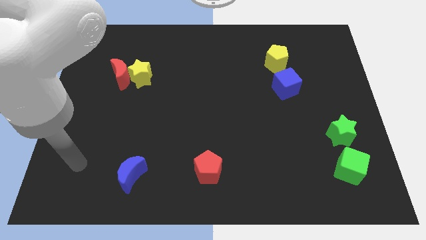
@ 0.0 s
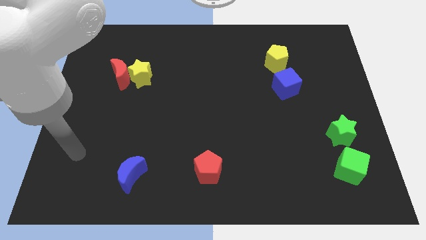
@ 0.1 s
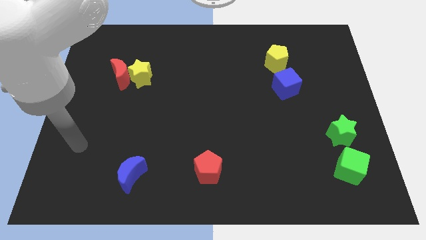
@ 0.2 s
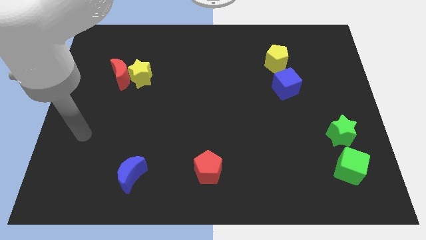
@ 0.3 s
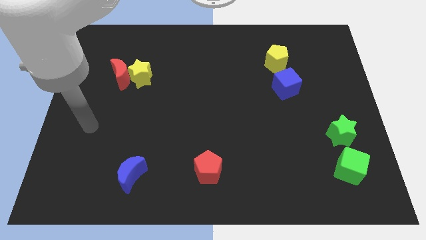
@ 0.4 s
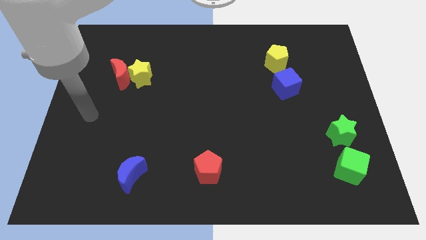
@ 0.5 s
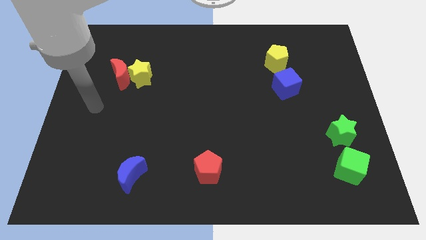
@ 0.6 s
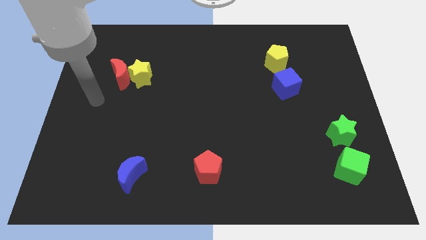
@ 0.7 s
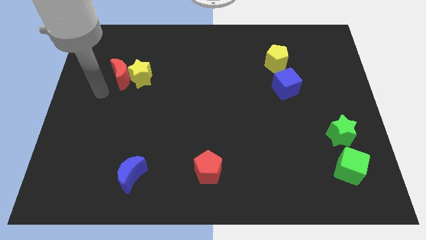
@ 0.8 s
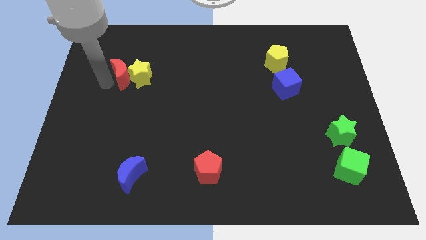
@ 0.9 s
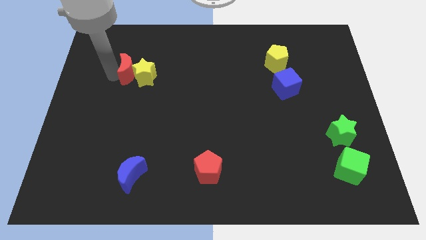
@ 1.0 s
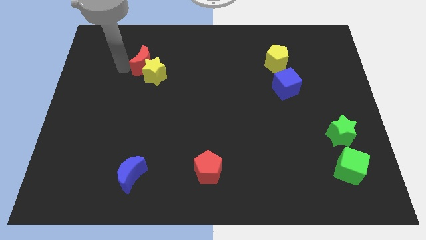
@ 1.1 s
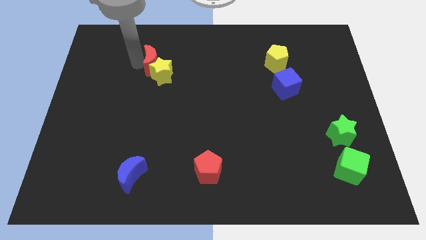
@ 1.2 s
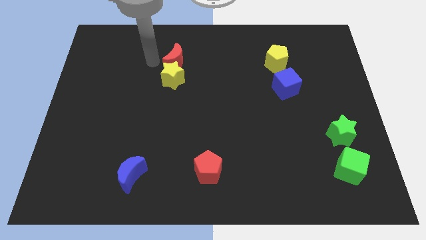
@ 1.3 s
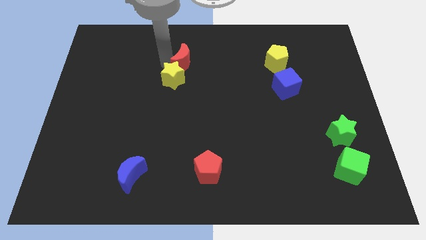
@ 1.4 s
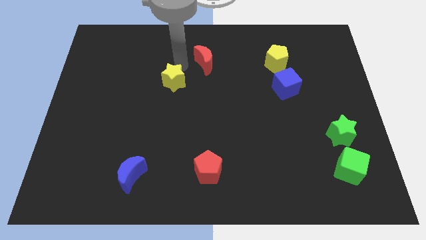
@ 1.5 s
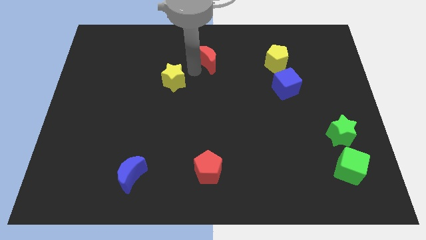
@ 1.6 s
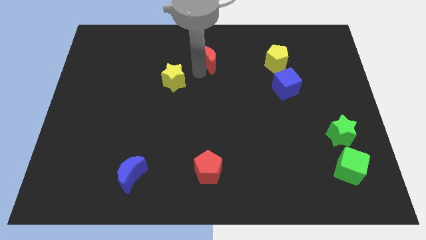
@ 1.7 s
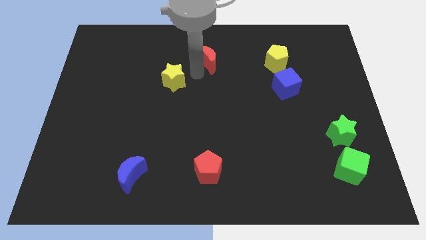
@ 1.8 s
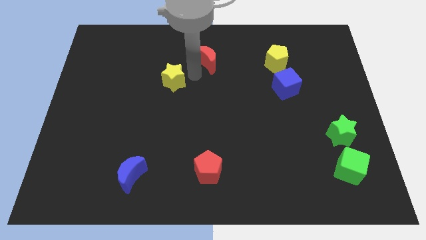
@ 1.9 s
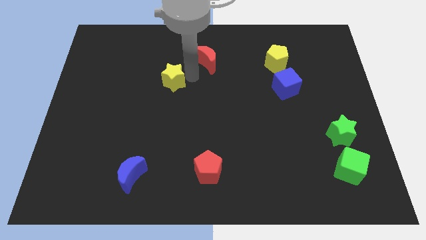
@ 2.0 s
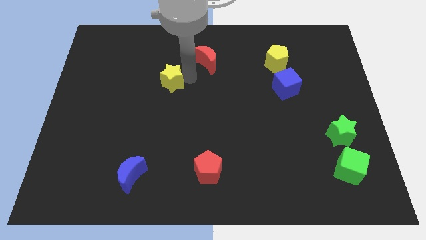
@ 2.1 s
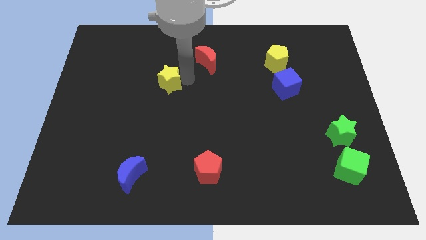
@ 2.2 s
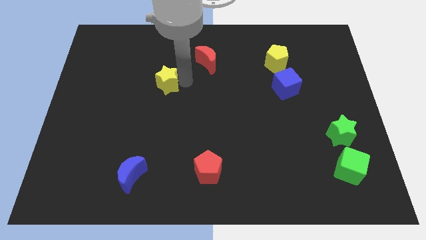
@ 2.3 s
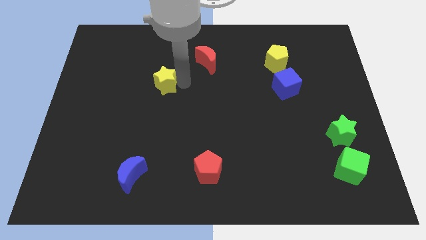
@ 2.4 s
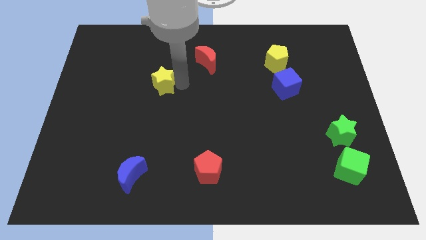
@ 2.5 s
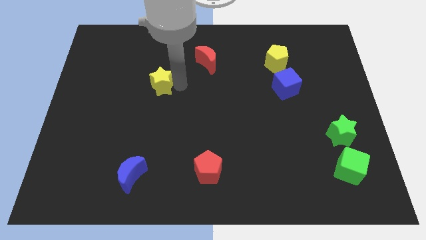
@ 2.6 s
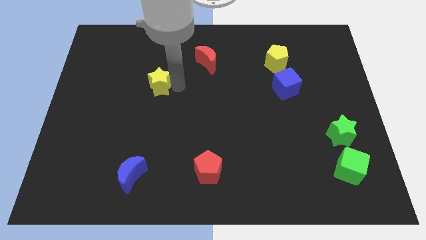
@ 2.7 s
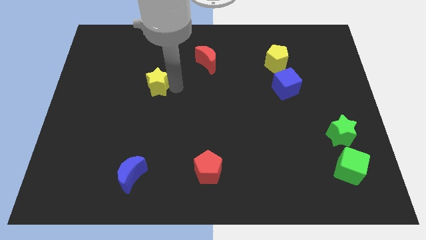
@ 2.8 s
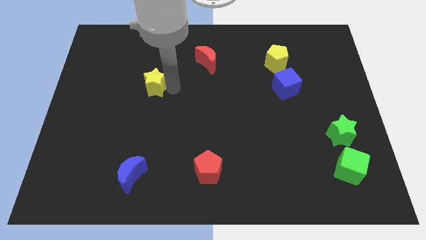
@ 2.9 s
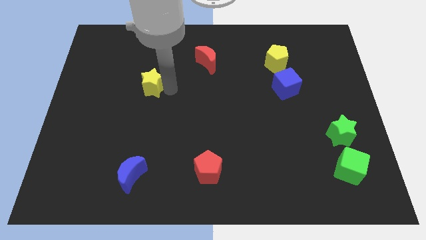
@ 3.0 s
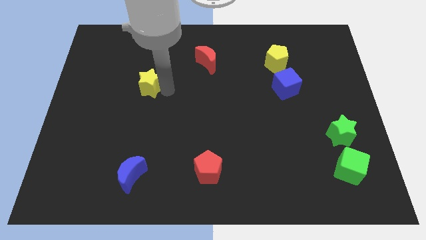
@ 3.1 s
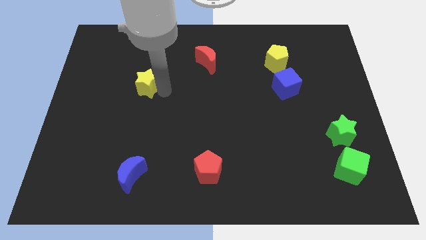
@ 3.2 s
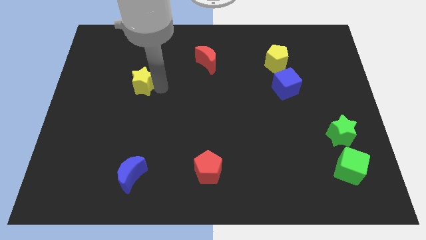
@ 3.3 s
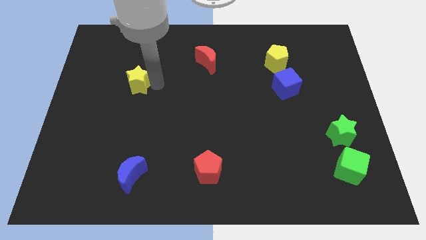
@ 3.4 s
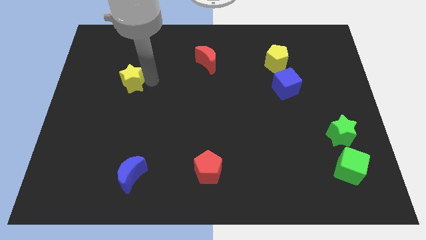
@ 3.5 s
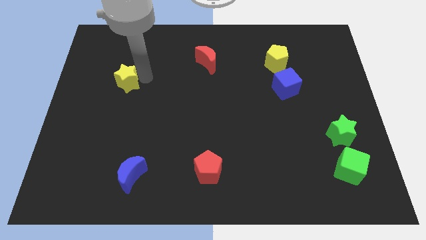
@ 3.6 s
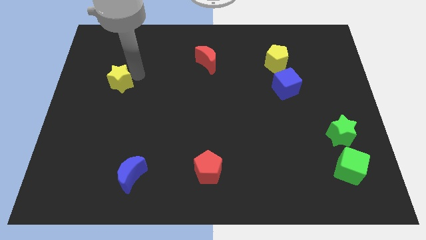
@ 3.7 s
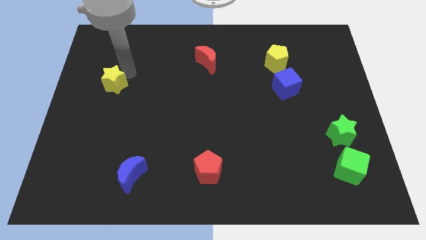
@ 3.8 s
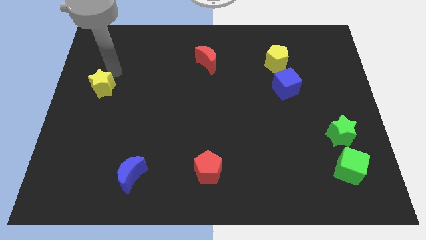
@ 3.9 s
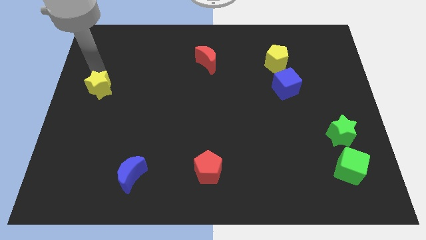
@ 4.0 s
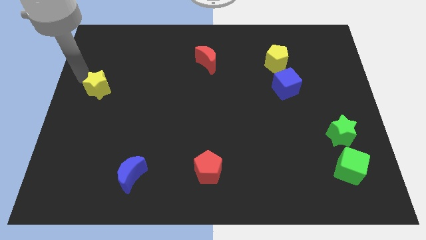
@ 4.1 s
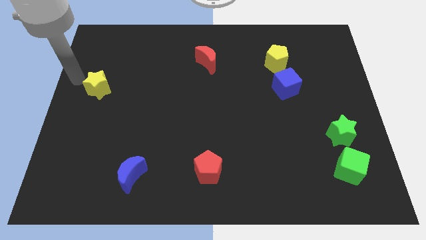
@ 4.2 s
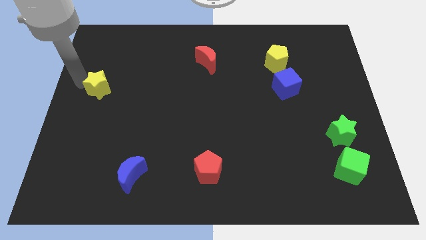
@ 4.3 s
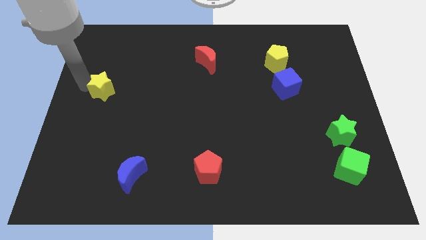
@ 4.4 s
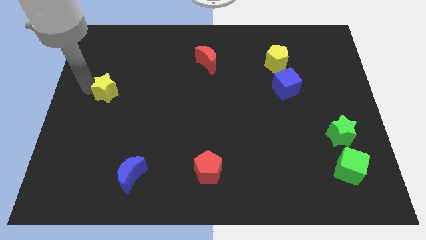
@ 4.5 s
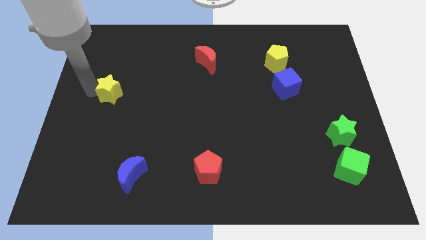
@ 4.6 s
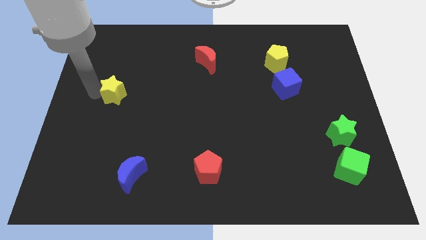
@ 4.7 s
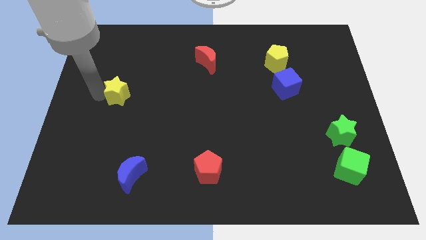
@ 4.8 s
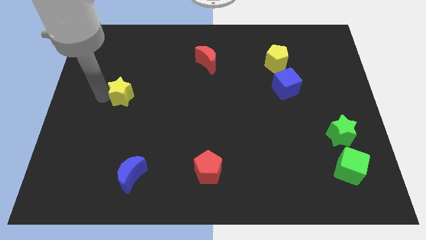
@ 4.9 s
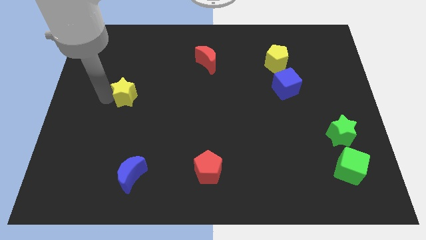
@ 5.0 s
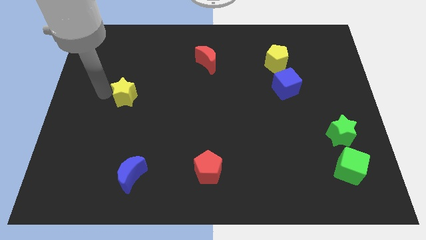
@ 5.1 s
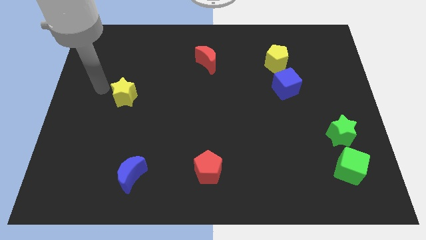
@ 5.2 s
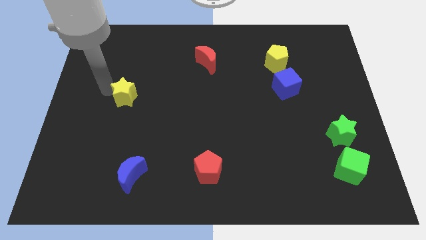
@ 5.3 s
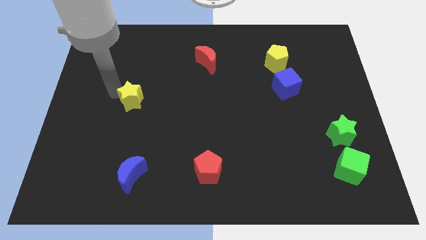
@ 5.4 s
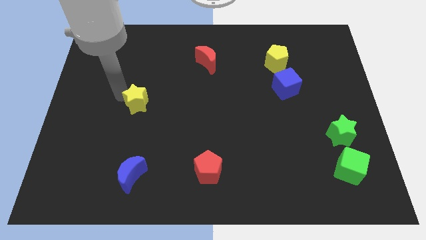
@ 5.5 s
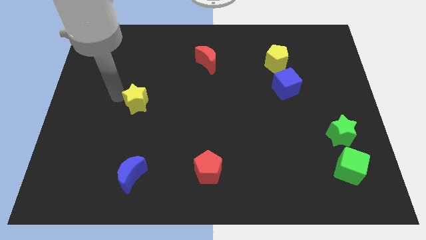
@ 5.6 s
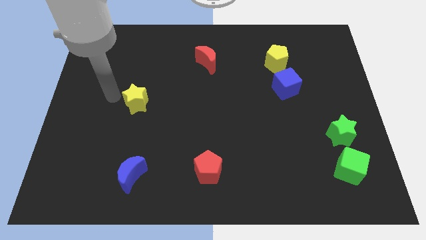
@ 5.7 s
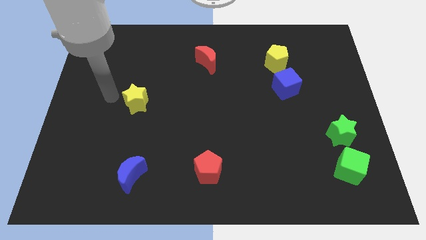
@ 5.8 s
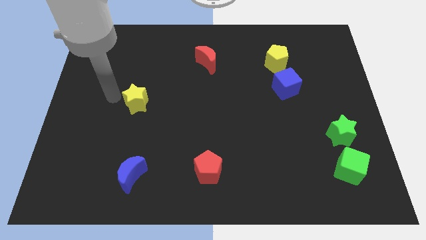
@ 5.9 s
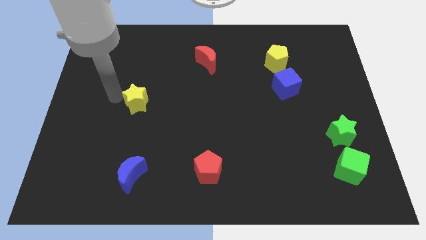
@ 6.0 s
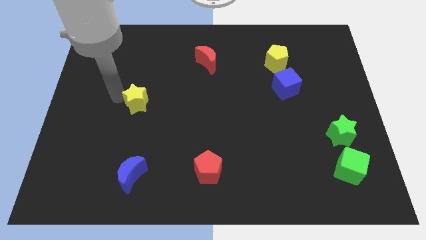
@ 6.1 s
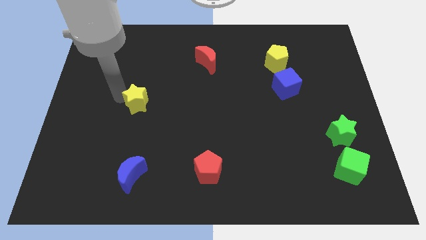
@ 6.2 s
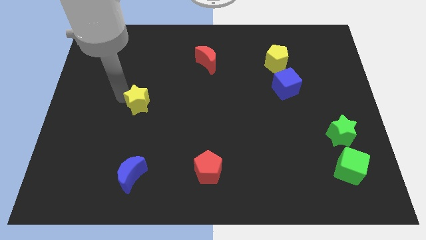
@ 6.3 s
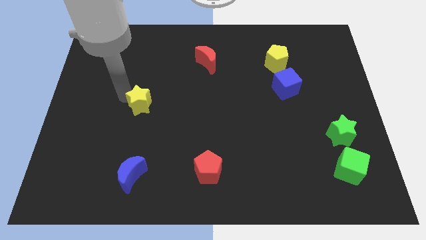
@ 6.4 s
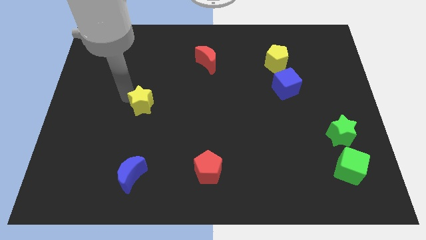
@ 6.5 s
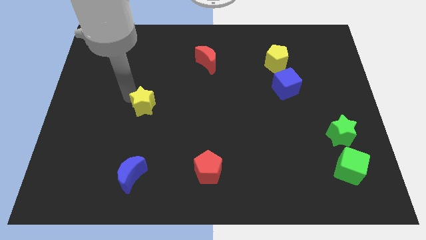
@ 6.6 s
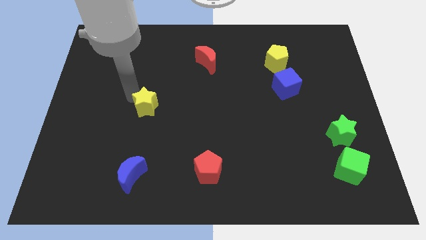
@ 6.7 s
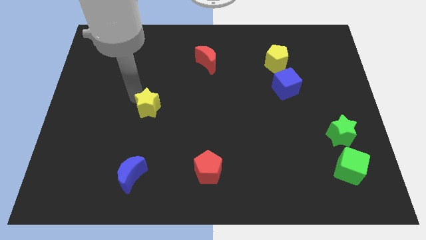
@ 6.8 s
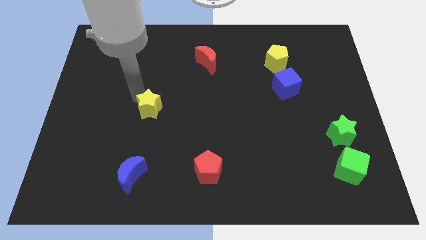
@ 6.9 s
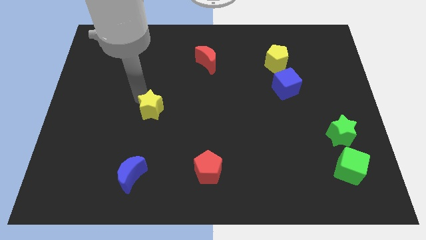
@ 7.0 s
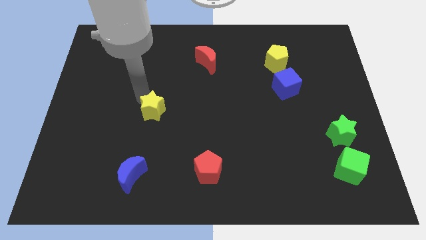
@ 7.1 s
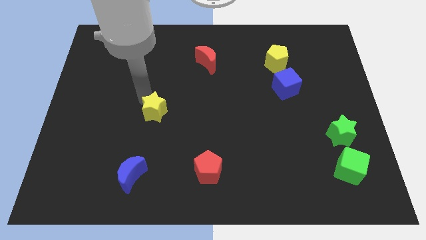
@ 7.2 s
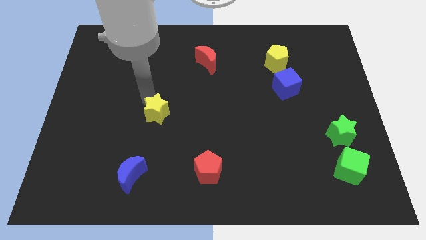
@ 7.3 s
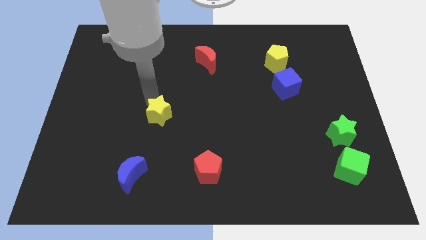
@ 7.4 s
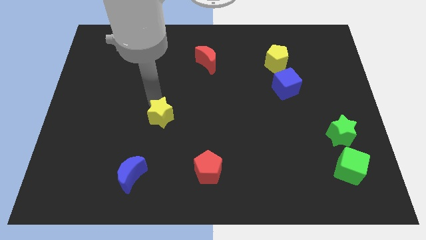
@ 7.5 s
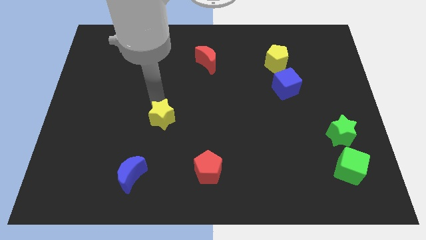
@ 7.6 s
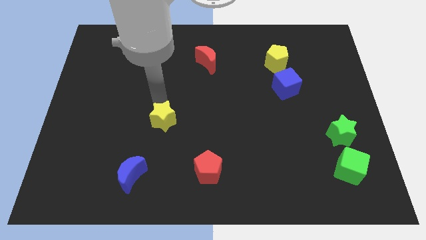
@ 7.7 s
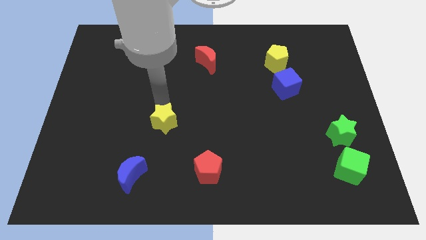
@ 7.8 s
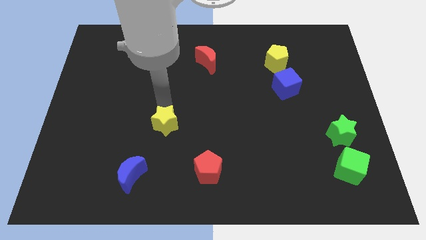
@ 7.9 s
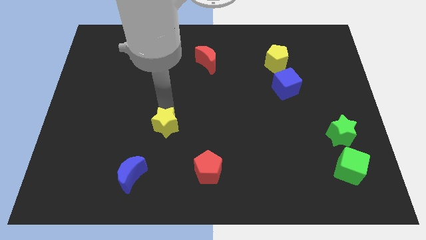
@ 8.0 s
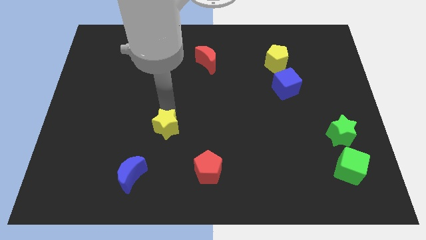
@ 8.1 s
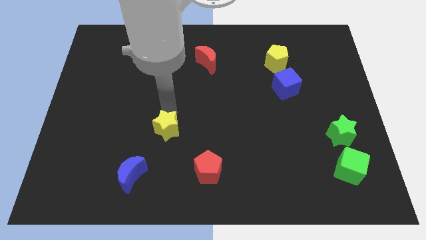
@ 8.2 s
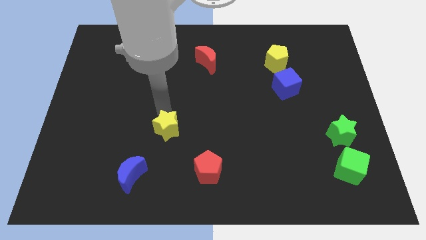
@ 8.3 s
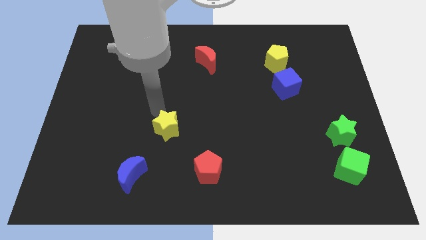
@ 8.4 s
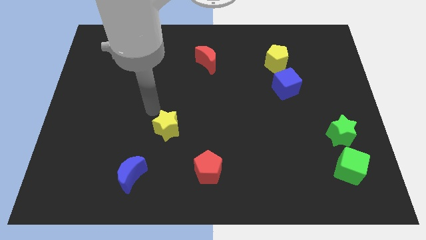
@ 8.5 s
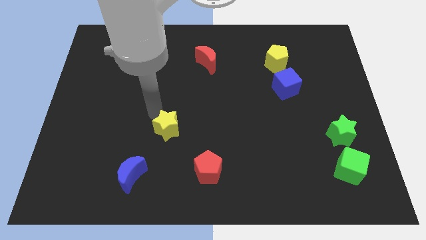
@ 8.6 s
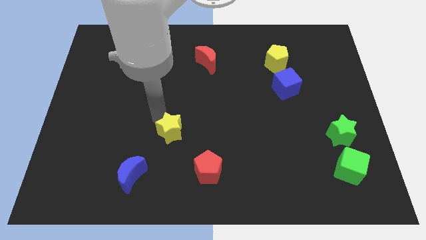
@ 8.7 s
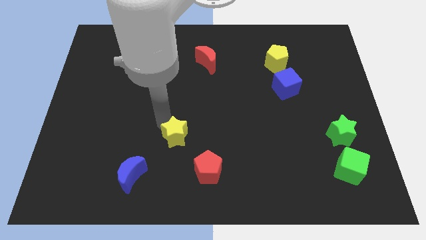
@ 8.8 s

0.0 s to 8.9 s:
push the yellow star to the top left side of the red pentagon
